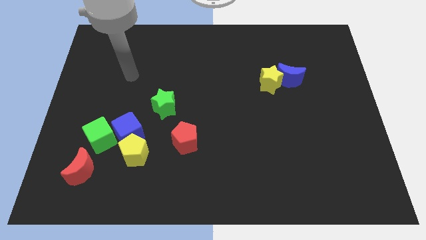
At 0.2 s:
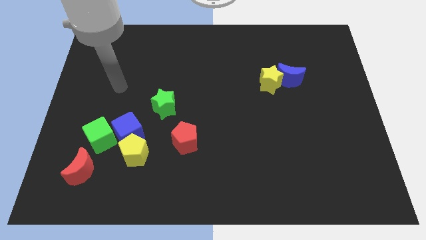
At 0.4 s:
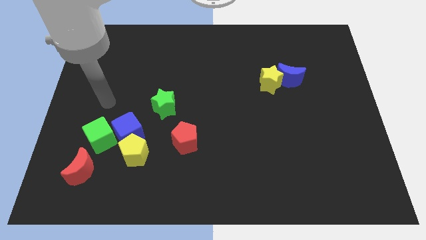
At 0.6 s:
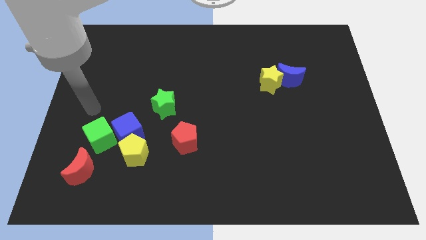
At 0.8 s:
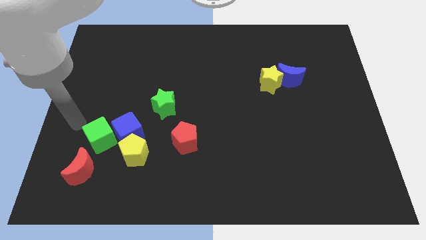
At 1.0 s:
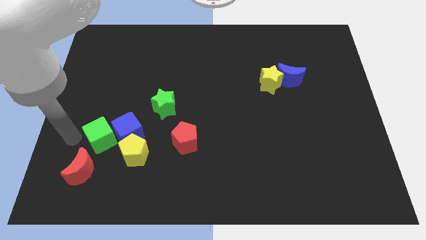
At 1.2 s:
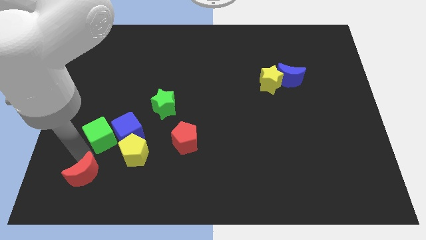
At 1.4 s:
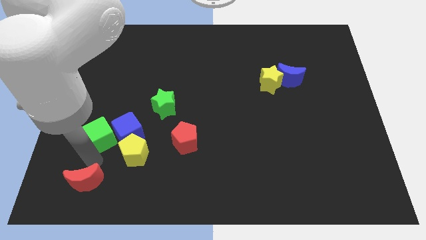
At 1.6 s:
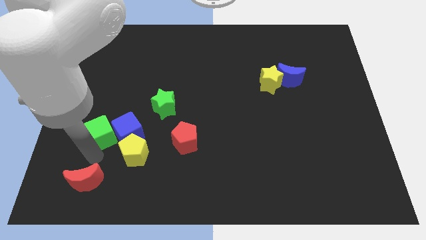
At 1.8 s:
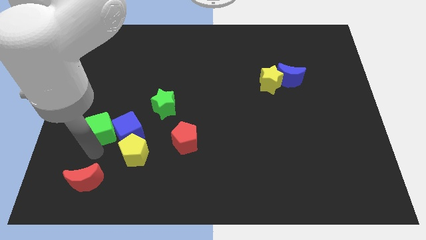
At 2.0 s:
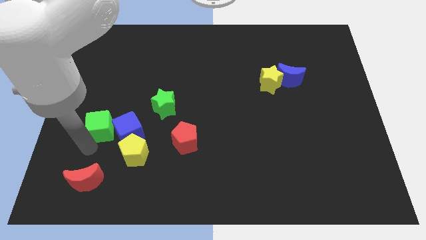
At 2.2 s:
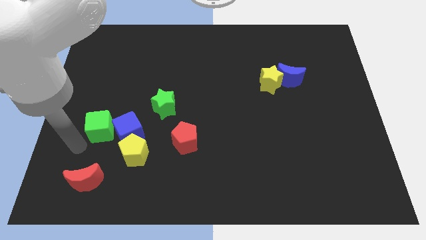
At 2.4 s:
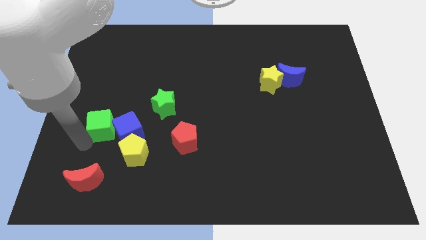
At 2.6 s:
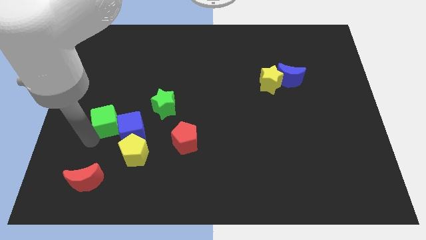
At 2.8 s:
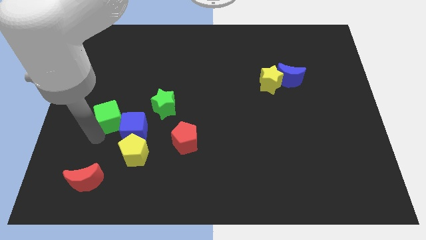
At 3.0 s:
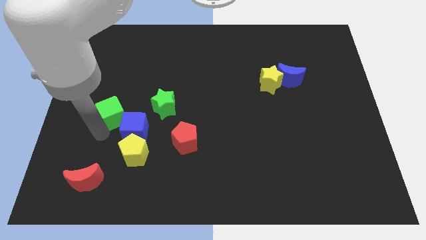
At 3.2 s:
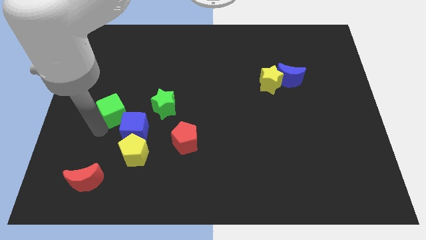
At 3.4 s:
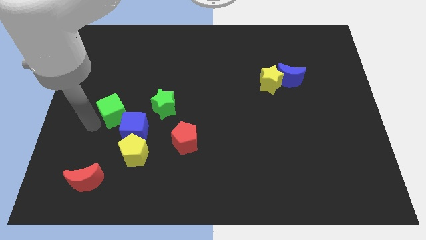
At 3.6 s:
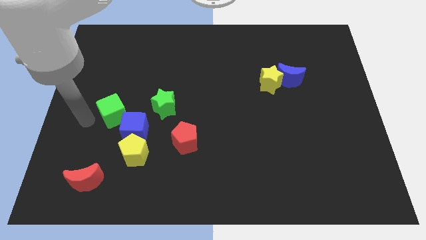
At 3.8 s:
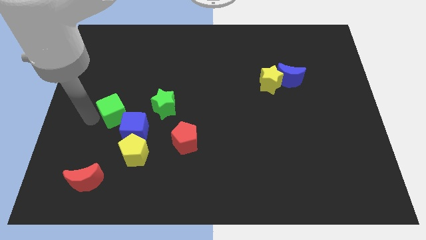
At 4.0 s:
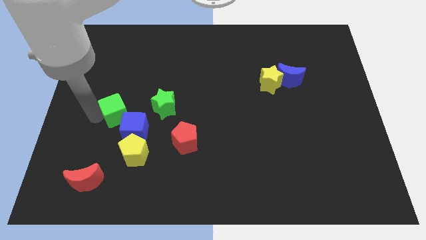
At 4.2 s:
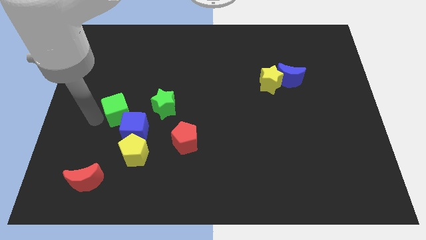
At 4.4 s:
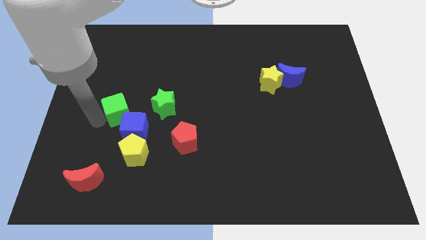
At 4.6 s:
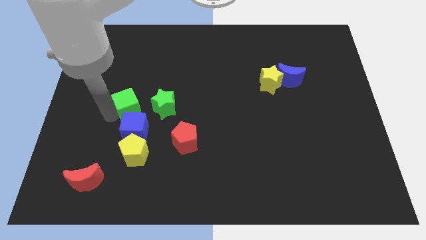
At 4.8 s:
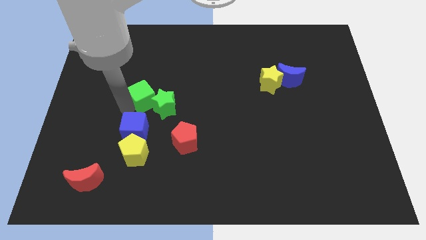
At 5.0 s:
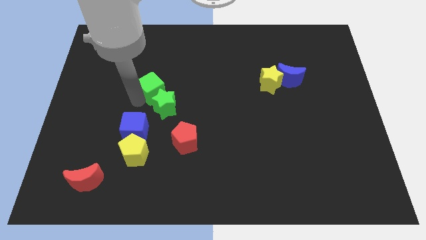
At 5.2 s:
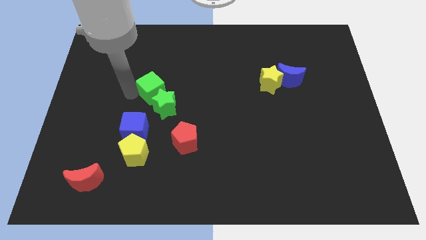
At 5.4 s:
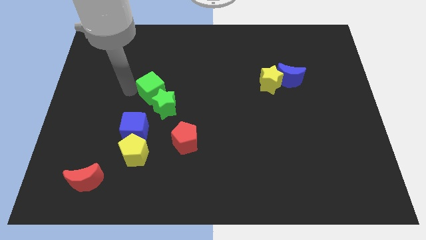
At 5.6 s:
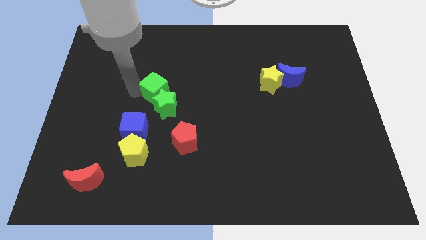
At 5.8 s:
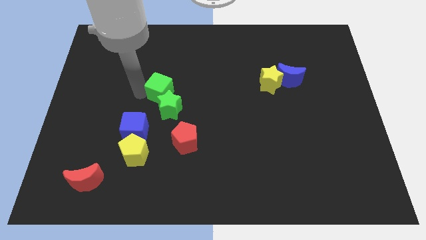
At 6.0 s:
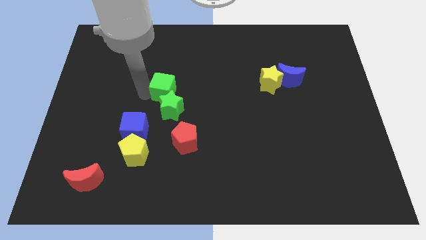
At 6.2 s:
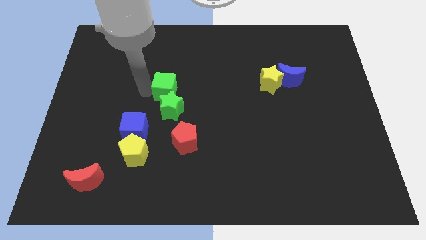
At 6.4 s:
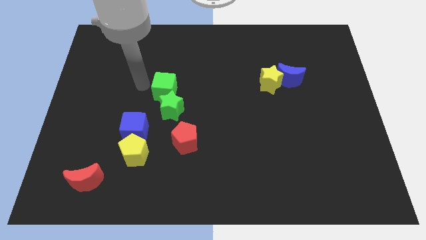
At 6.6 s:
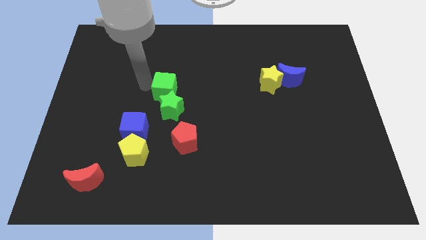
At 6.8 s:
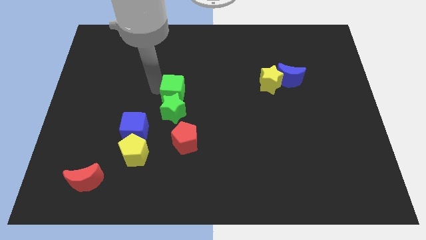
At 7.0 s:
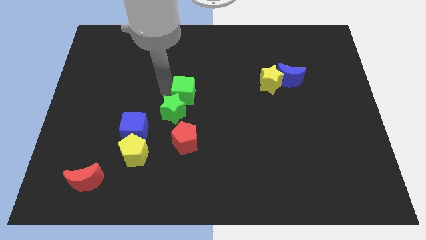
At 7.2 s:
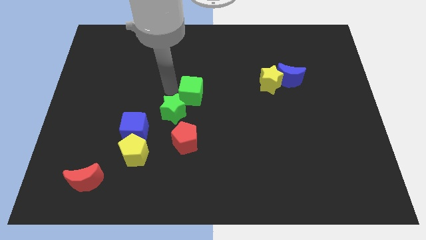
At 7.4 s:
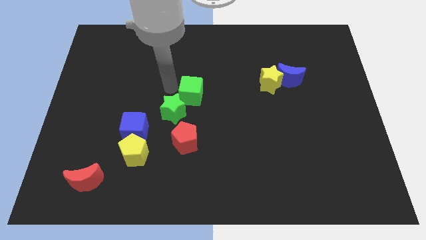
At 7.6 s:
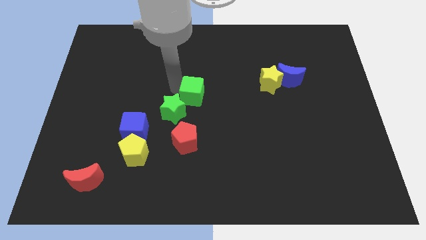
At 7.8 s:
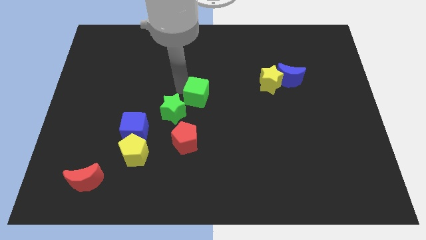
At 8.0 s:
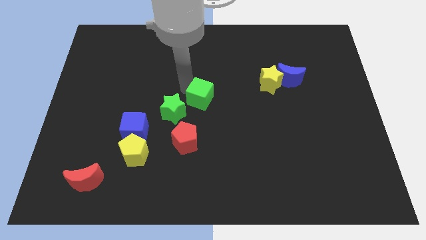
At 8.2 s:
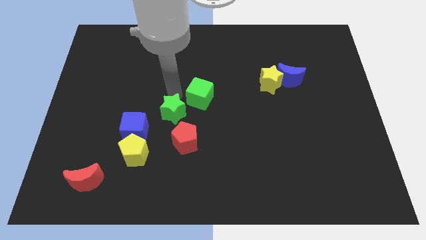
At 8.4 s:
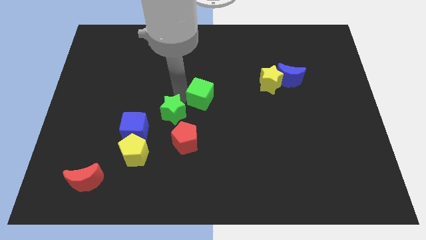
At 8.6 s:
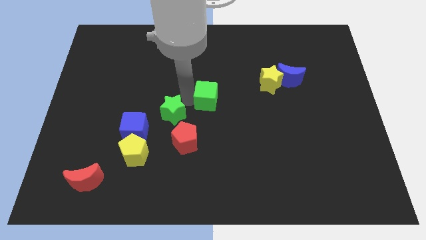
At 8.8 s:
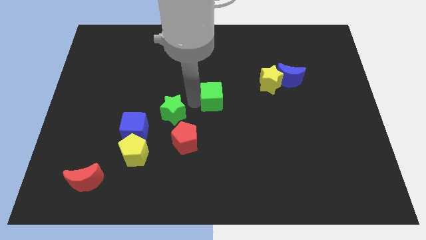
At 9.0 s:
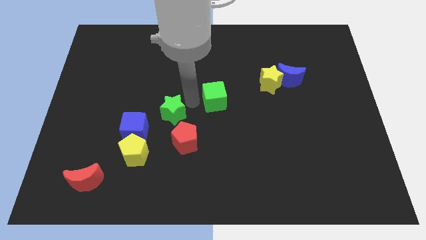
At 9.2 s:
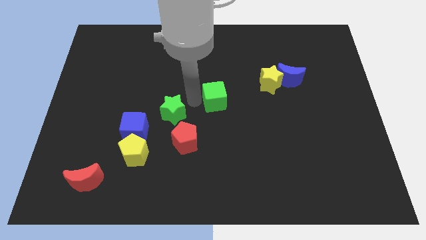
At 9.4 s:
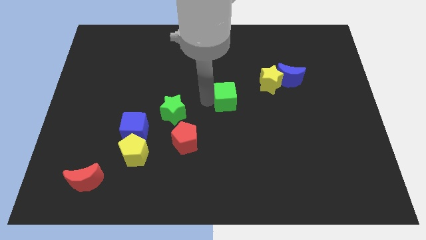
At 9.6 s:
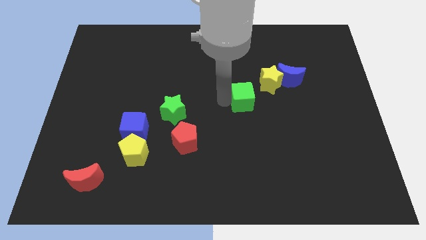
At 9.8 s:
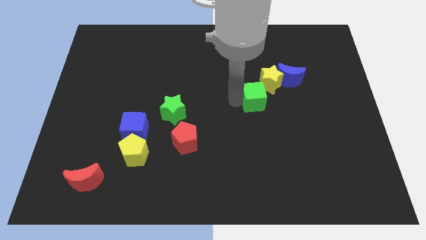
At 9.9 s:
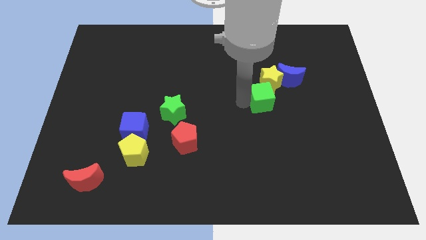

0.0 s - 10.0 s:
move the green cube close to the yellow star

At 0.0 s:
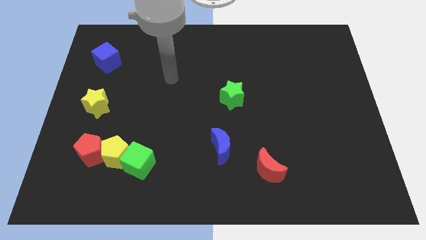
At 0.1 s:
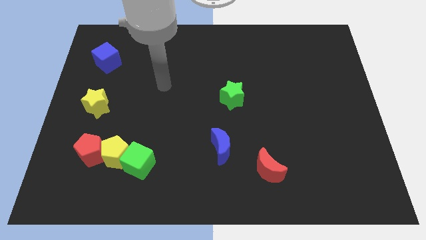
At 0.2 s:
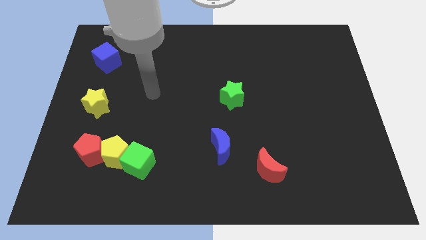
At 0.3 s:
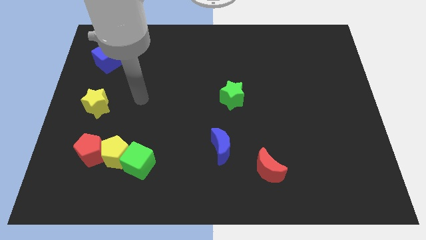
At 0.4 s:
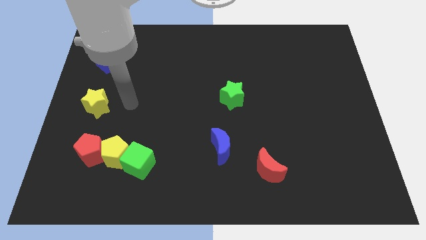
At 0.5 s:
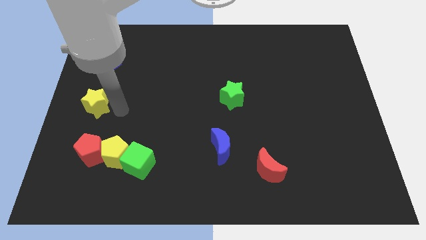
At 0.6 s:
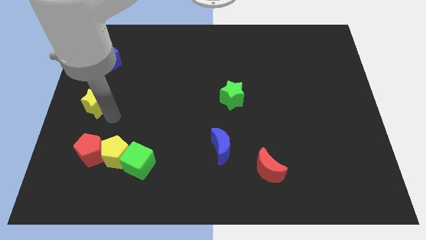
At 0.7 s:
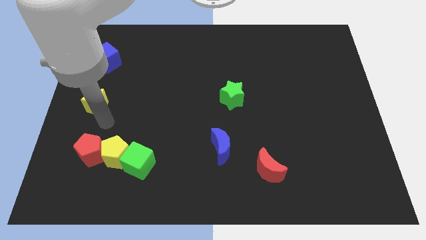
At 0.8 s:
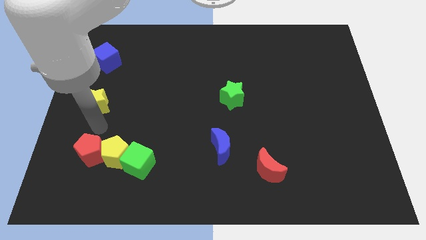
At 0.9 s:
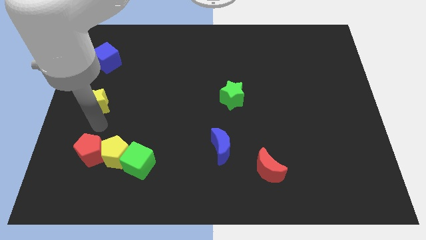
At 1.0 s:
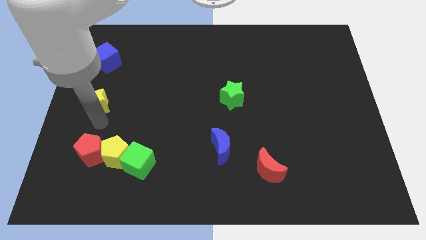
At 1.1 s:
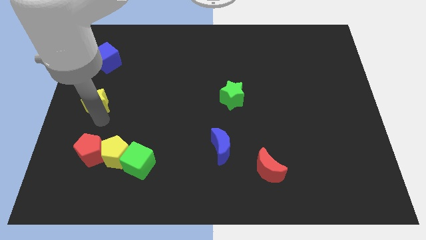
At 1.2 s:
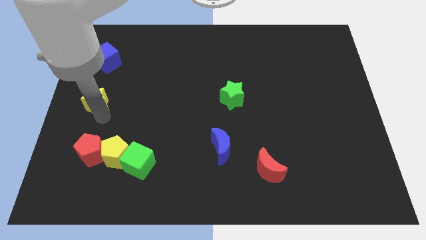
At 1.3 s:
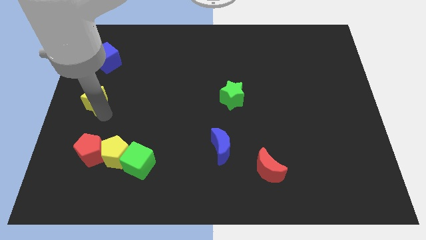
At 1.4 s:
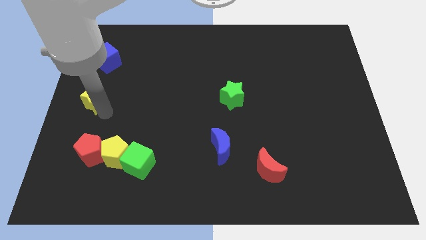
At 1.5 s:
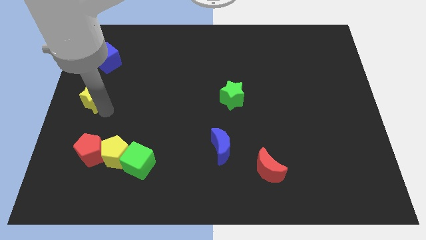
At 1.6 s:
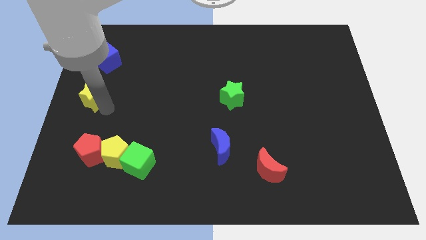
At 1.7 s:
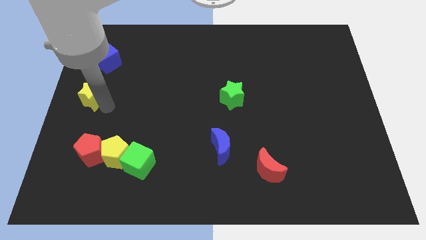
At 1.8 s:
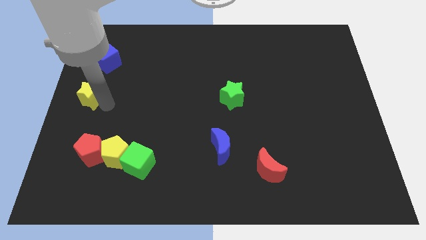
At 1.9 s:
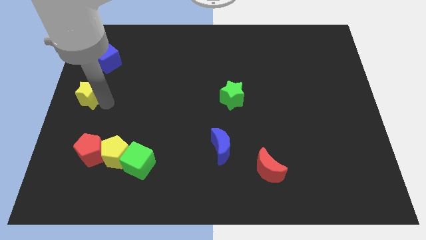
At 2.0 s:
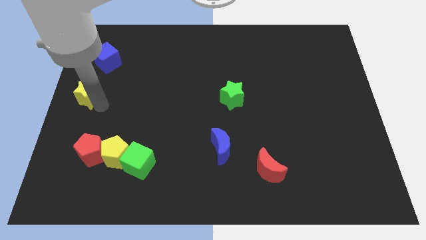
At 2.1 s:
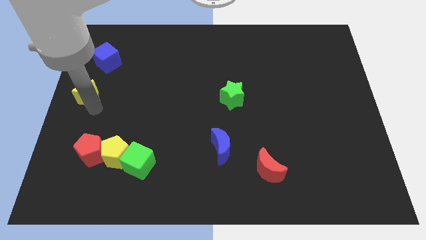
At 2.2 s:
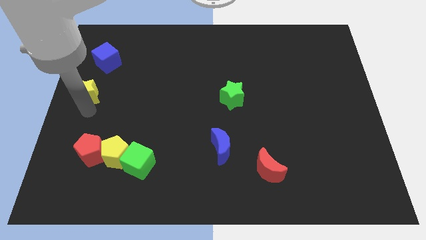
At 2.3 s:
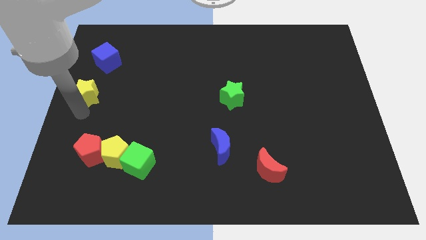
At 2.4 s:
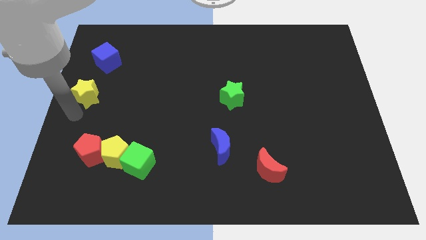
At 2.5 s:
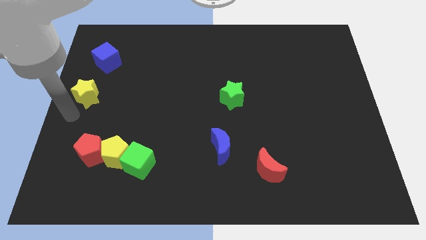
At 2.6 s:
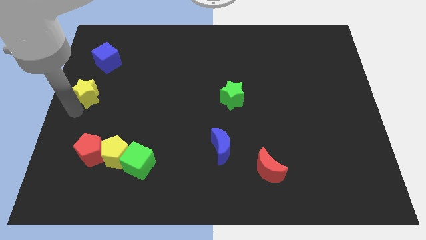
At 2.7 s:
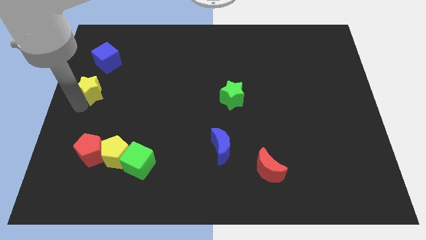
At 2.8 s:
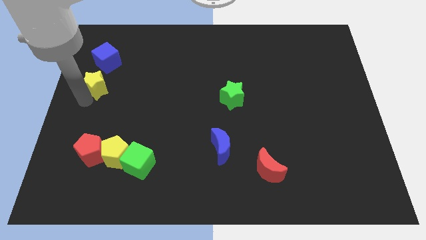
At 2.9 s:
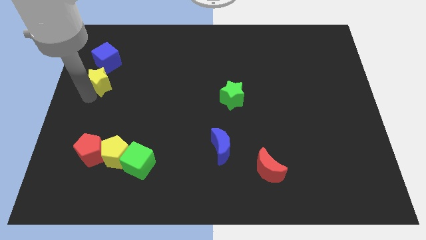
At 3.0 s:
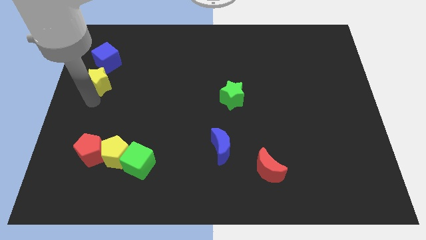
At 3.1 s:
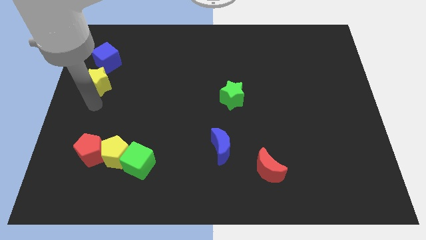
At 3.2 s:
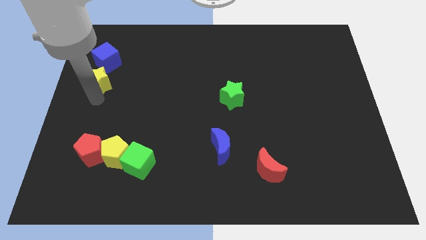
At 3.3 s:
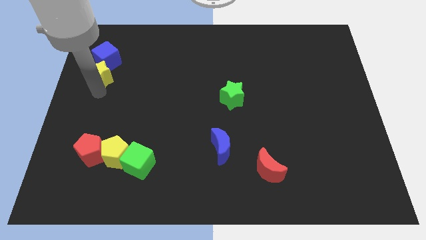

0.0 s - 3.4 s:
slide the yellow star to the blue cube
